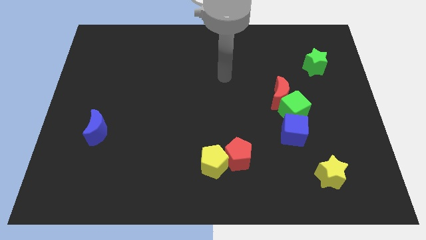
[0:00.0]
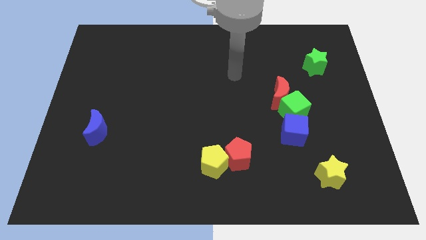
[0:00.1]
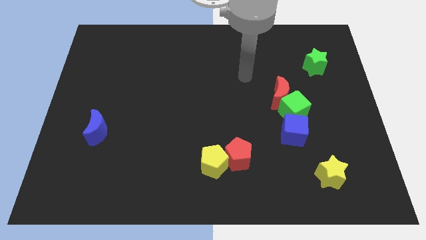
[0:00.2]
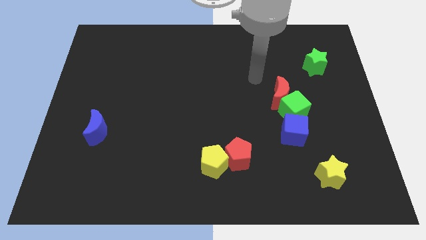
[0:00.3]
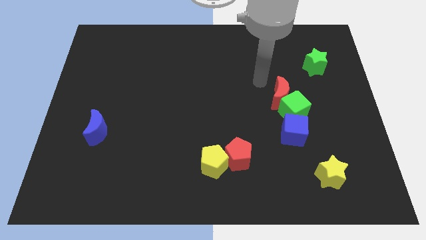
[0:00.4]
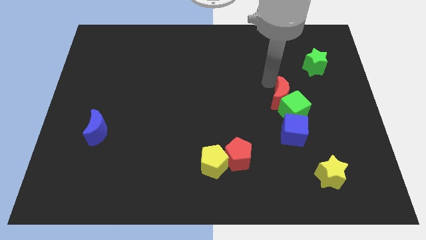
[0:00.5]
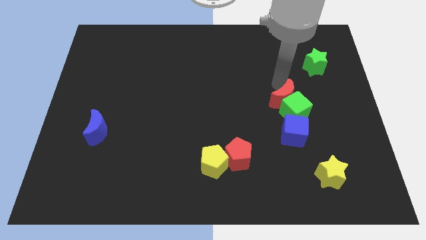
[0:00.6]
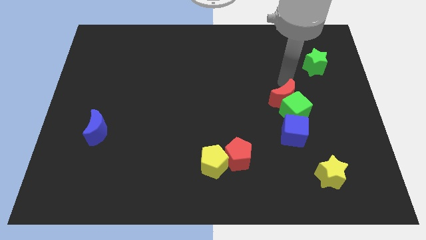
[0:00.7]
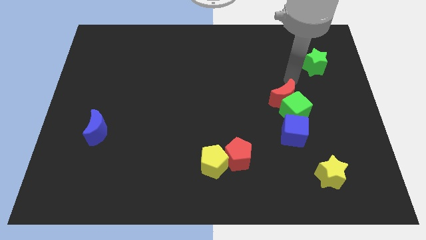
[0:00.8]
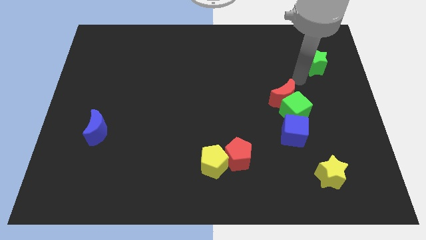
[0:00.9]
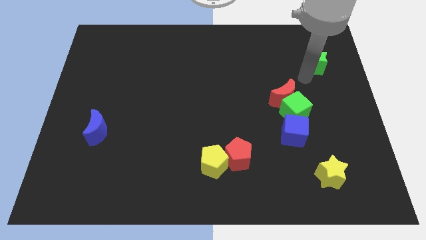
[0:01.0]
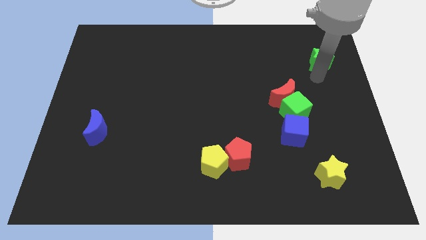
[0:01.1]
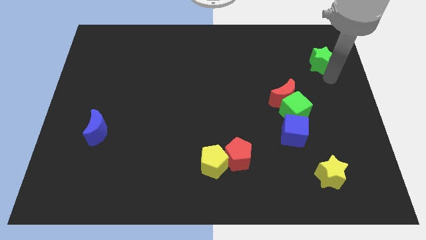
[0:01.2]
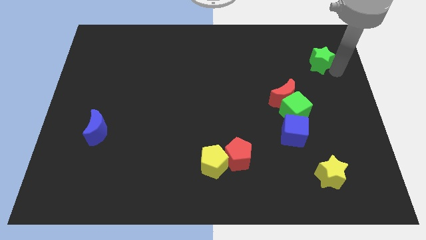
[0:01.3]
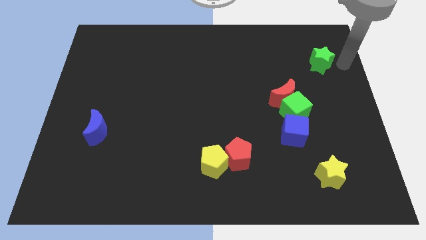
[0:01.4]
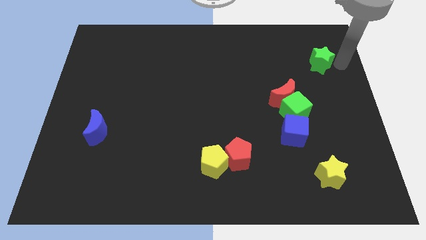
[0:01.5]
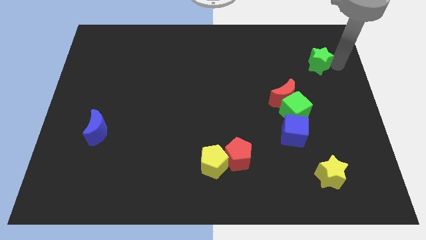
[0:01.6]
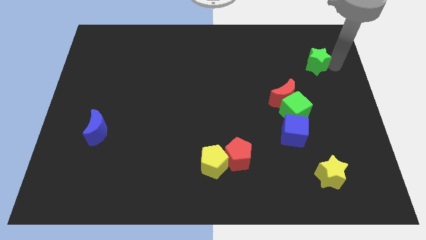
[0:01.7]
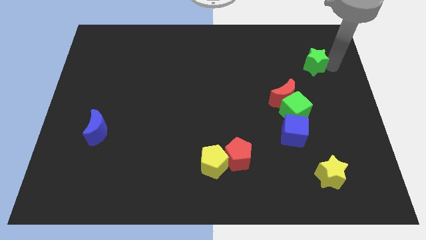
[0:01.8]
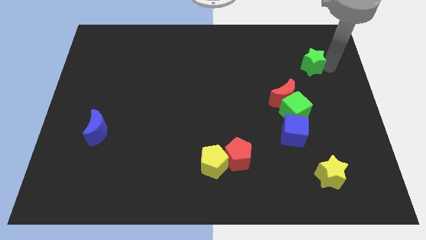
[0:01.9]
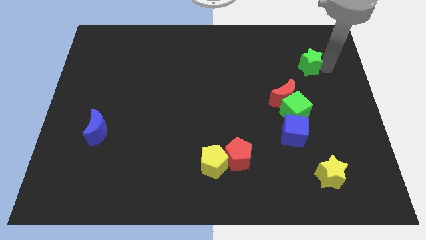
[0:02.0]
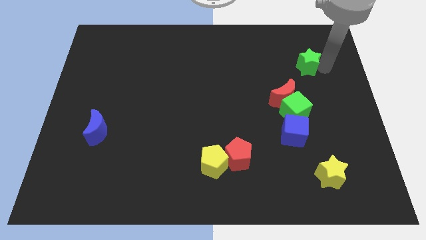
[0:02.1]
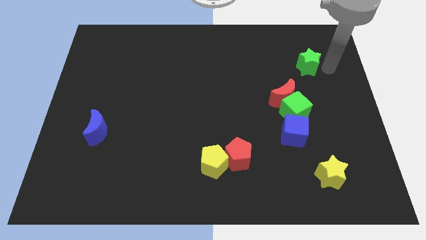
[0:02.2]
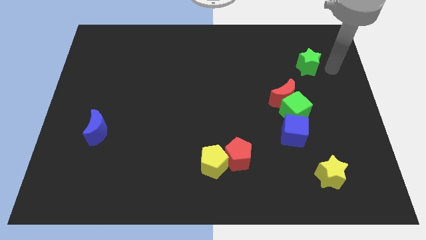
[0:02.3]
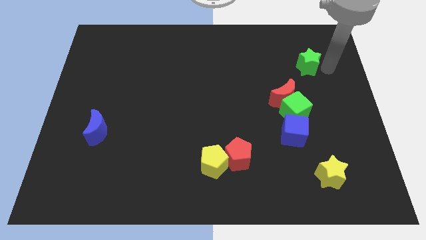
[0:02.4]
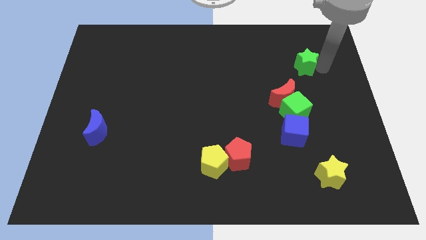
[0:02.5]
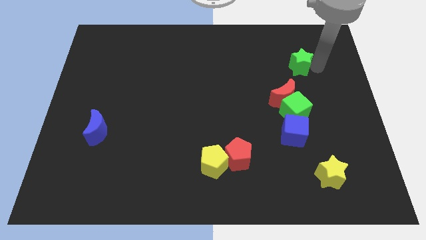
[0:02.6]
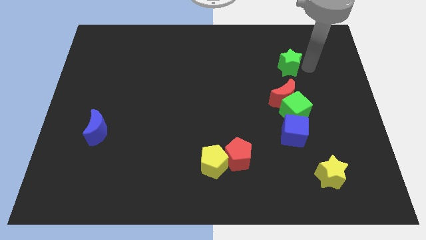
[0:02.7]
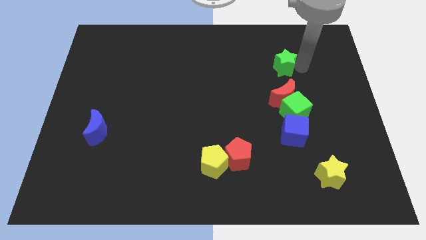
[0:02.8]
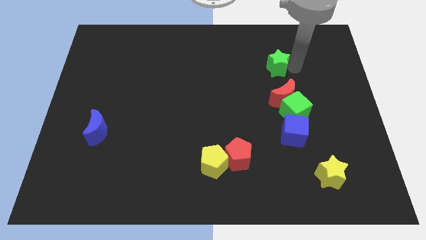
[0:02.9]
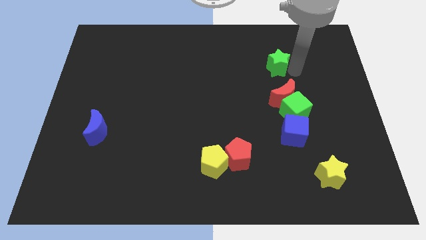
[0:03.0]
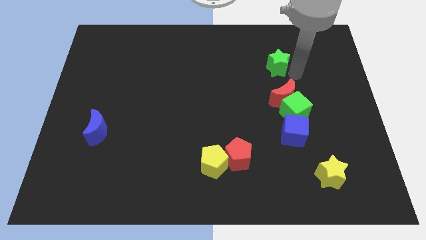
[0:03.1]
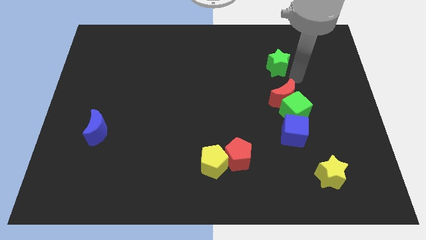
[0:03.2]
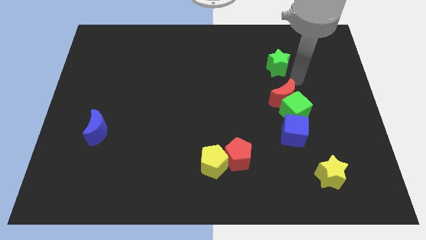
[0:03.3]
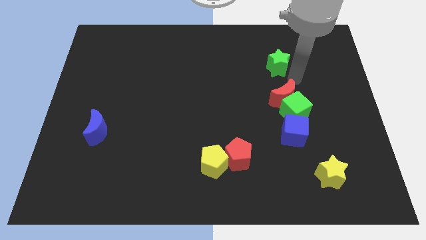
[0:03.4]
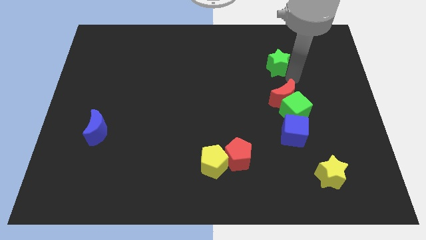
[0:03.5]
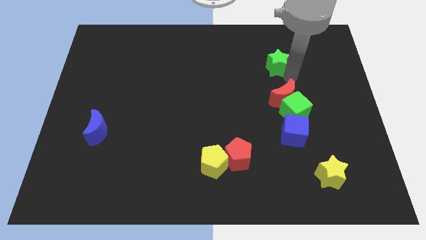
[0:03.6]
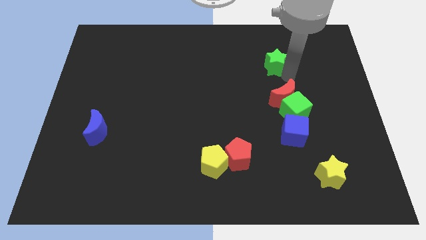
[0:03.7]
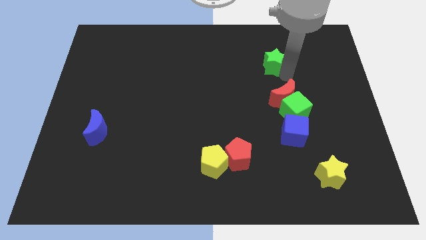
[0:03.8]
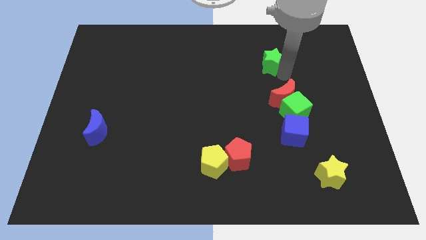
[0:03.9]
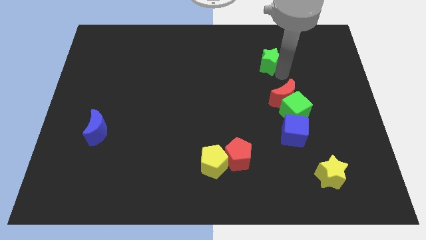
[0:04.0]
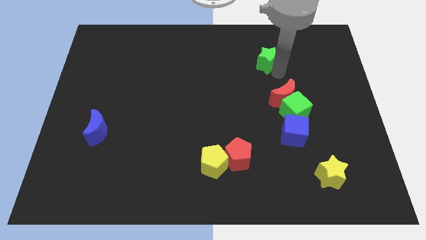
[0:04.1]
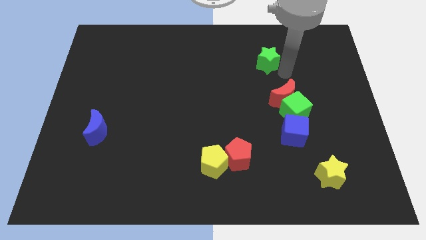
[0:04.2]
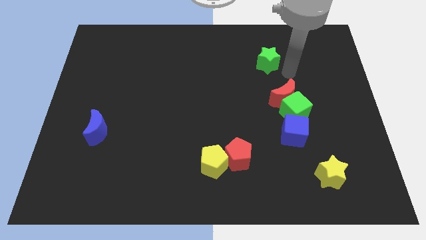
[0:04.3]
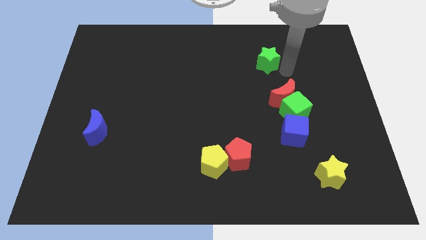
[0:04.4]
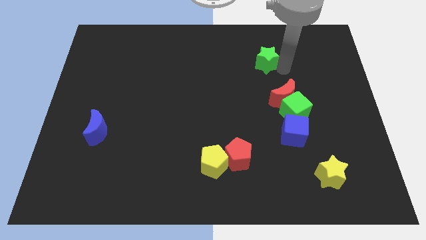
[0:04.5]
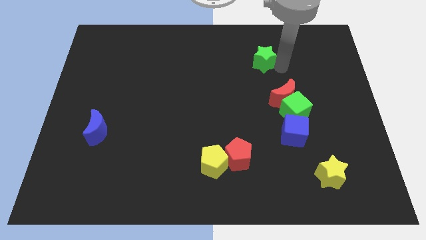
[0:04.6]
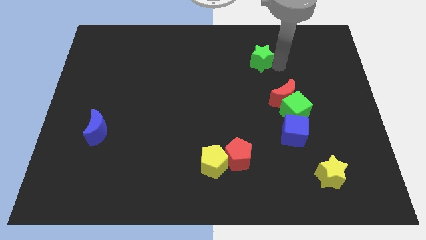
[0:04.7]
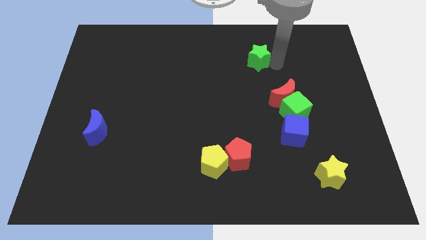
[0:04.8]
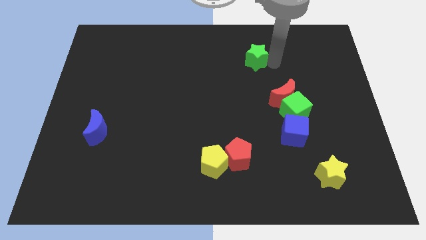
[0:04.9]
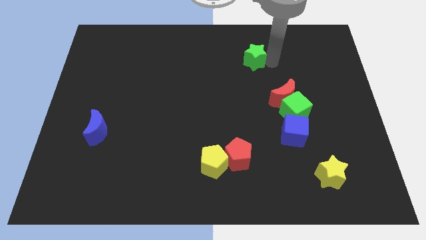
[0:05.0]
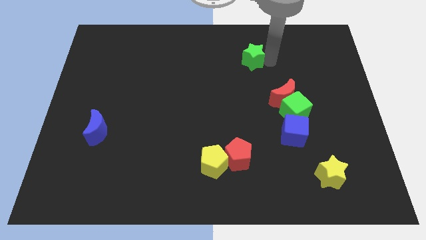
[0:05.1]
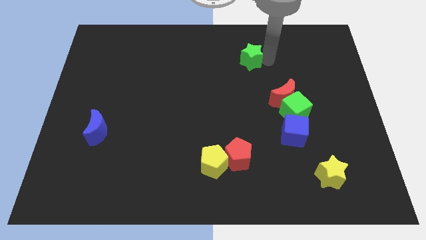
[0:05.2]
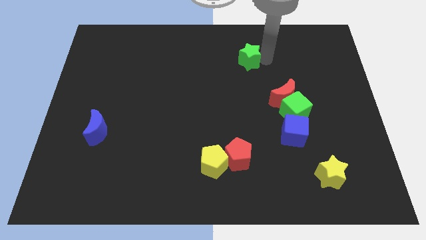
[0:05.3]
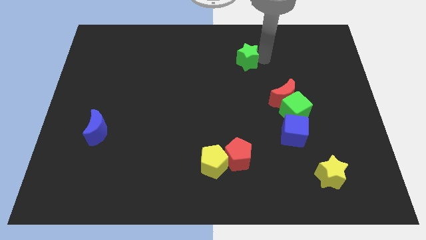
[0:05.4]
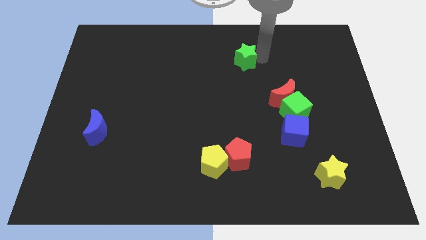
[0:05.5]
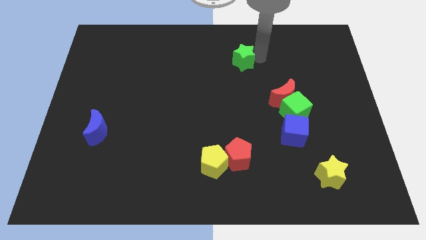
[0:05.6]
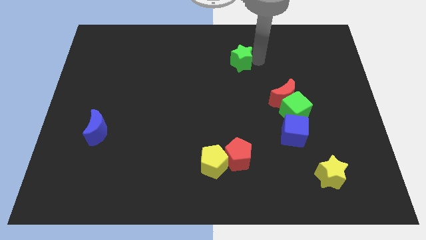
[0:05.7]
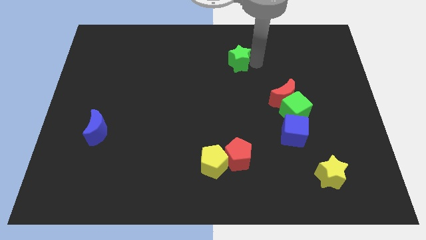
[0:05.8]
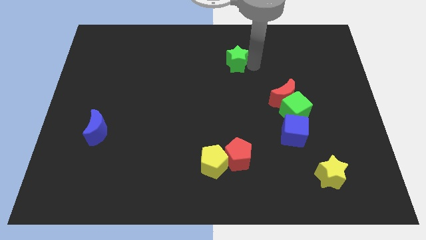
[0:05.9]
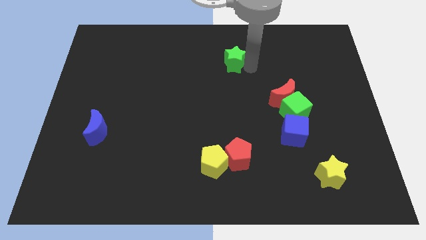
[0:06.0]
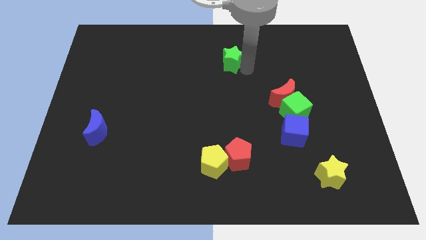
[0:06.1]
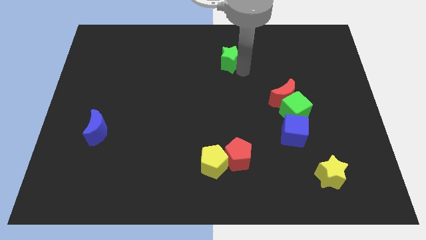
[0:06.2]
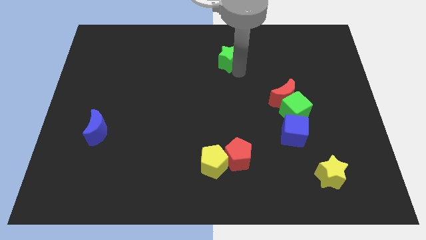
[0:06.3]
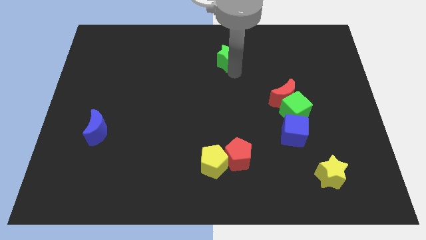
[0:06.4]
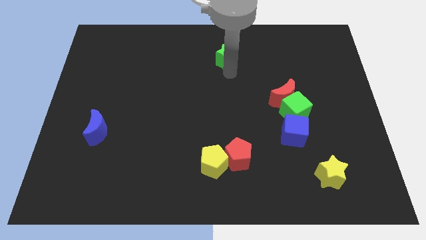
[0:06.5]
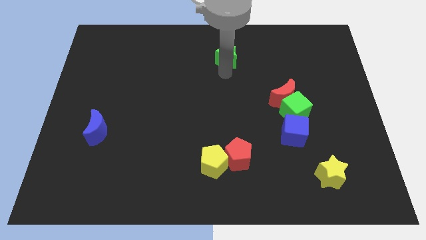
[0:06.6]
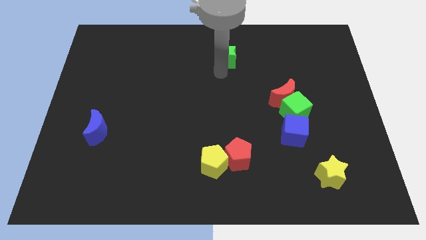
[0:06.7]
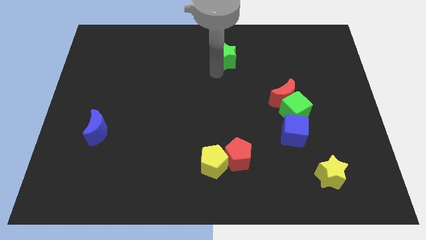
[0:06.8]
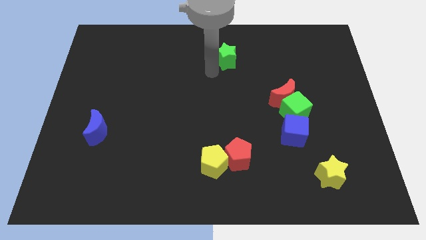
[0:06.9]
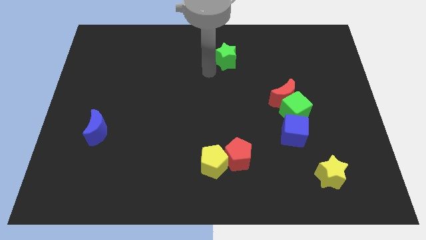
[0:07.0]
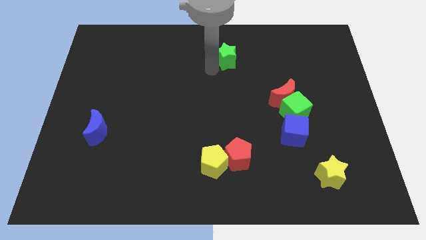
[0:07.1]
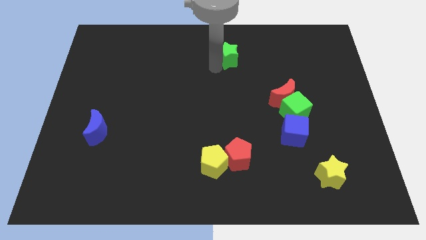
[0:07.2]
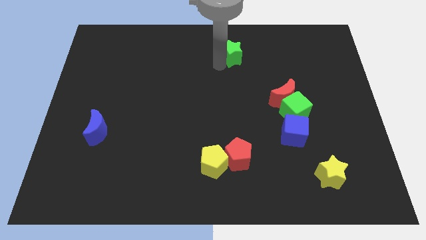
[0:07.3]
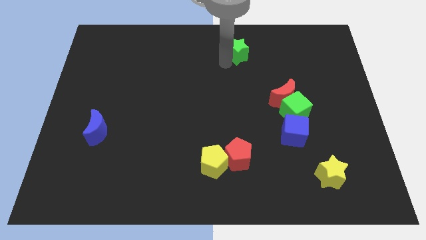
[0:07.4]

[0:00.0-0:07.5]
slide the green star to the towards your base

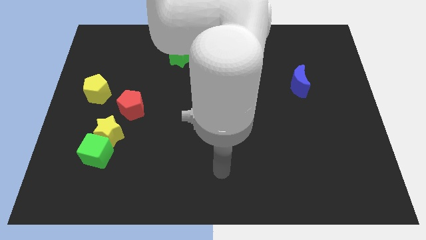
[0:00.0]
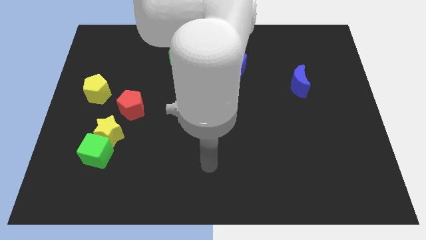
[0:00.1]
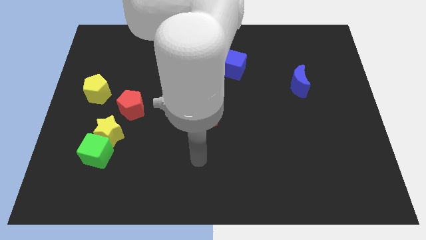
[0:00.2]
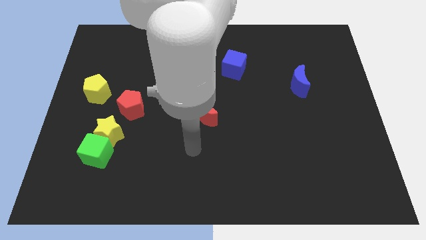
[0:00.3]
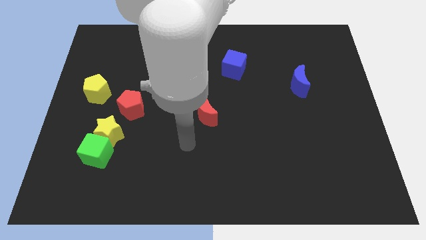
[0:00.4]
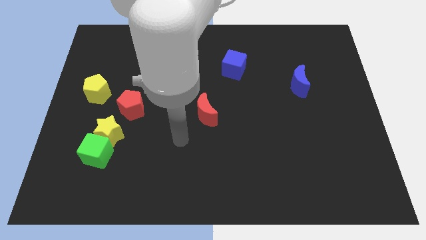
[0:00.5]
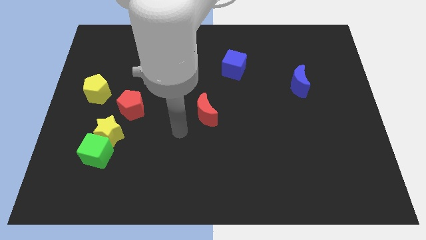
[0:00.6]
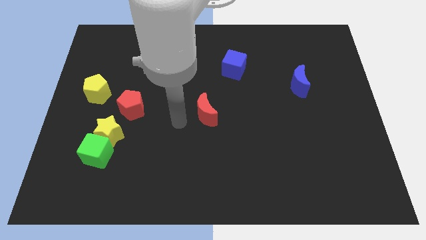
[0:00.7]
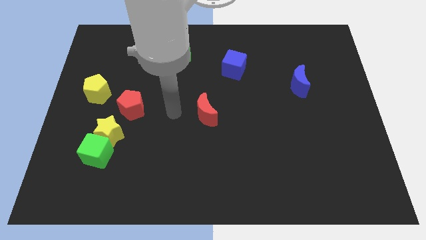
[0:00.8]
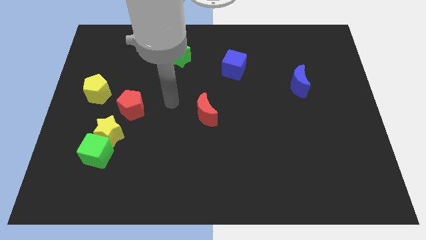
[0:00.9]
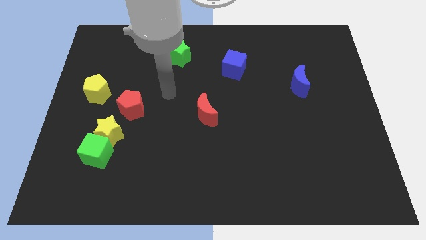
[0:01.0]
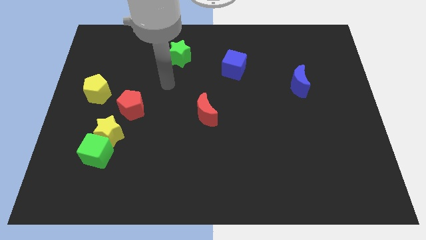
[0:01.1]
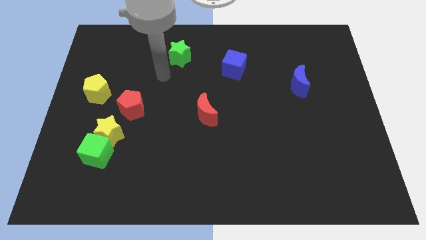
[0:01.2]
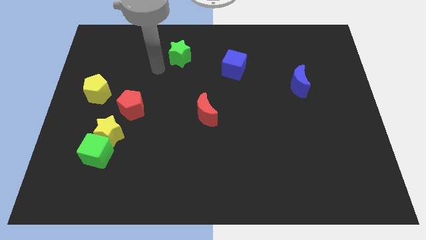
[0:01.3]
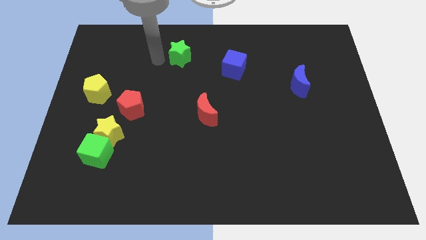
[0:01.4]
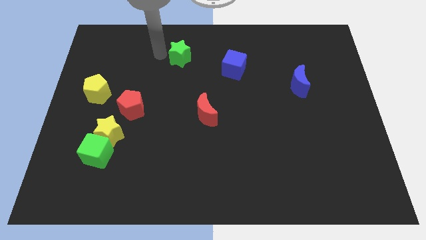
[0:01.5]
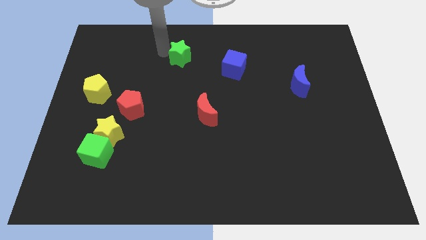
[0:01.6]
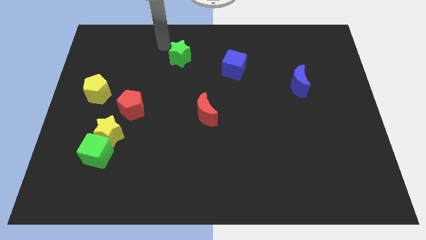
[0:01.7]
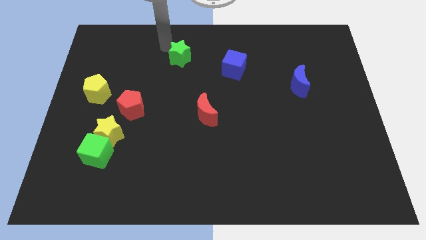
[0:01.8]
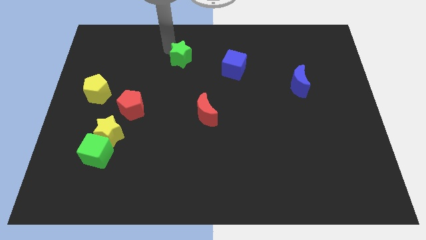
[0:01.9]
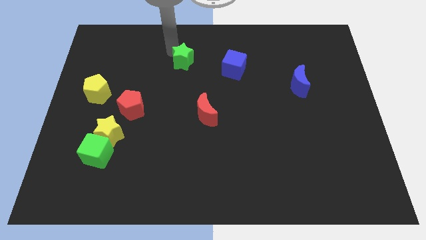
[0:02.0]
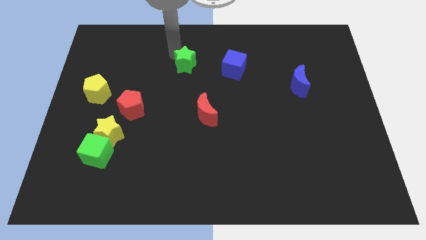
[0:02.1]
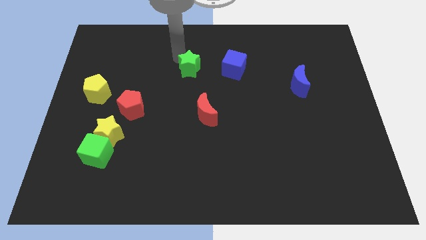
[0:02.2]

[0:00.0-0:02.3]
put the green star to the center
